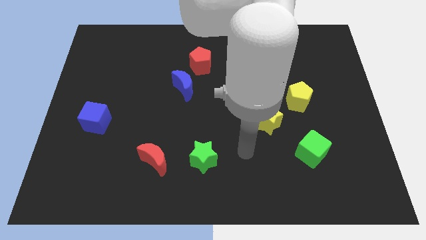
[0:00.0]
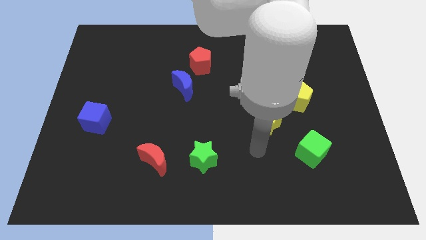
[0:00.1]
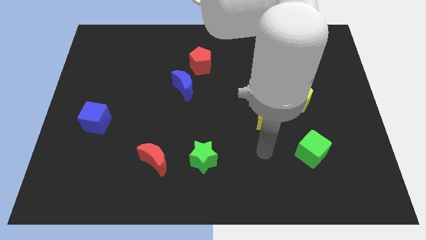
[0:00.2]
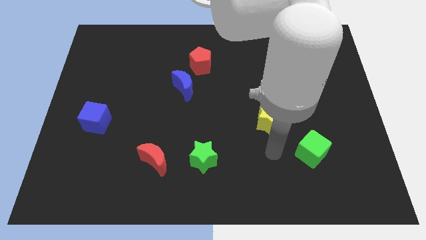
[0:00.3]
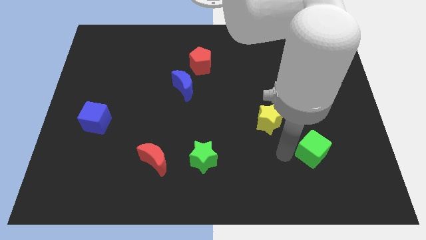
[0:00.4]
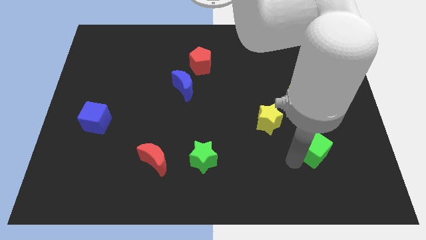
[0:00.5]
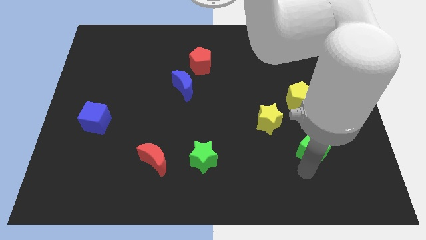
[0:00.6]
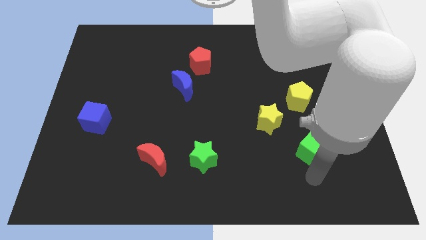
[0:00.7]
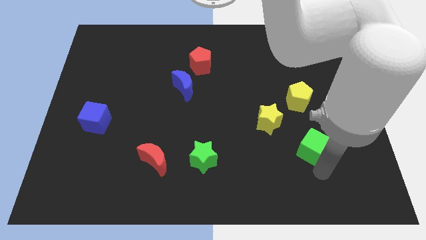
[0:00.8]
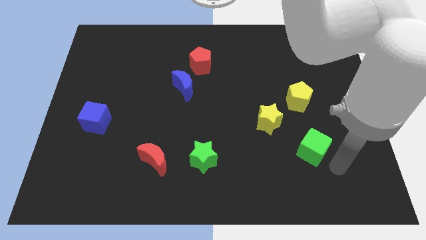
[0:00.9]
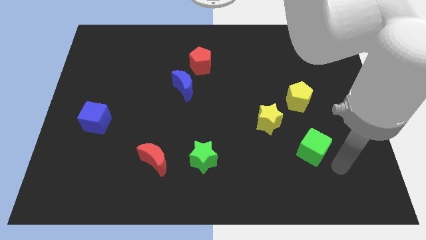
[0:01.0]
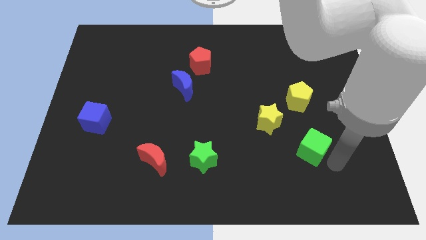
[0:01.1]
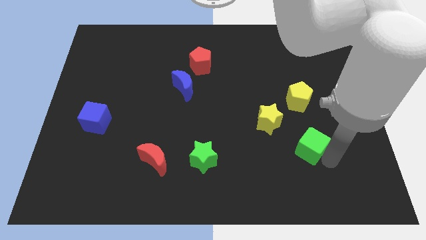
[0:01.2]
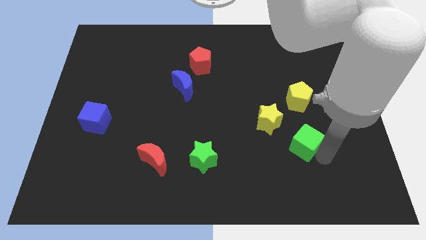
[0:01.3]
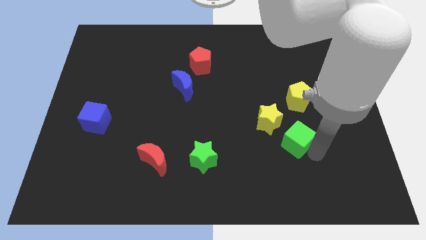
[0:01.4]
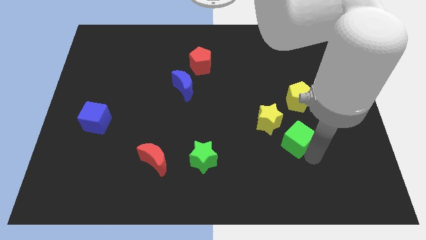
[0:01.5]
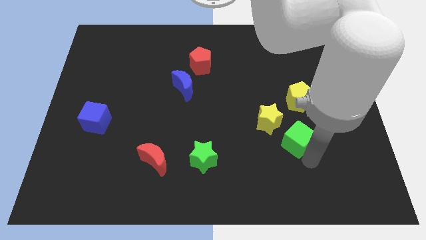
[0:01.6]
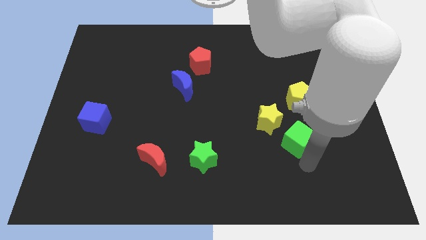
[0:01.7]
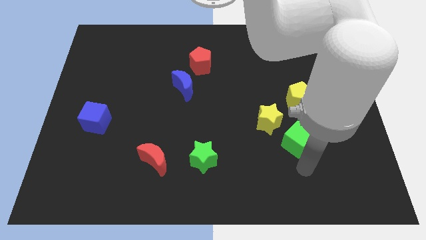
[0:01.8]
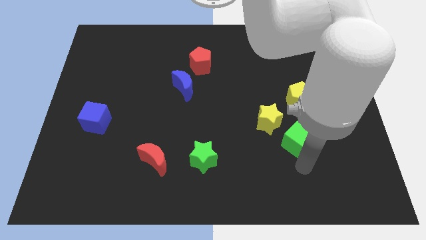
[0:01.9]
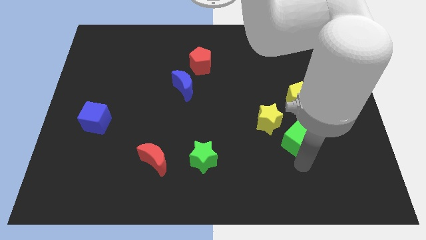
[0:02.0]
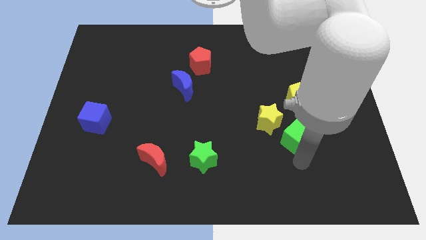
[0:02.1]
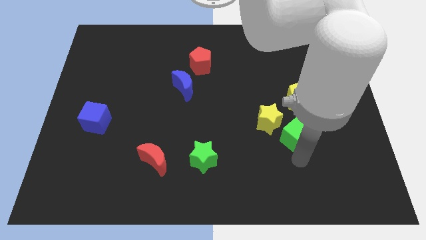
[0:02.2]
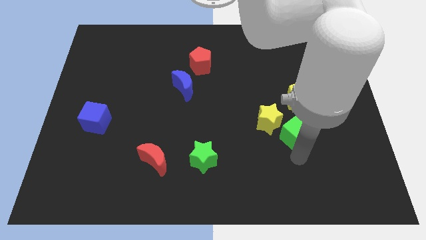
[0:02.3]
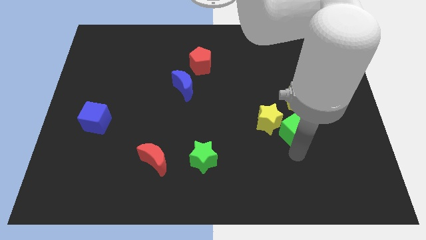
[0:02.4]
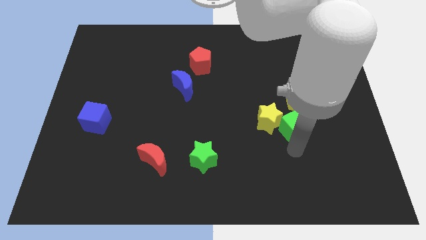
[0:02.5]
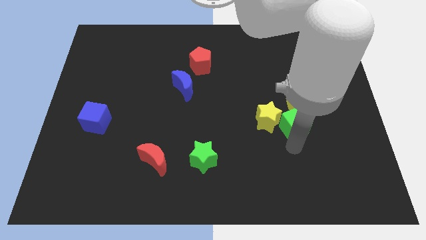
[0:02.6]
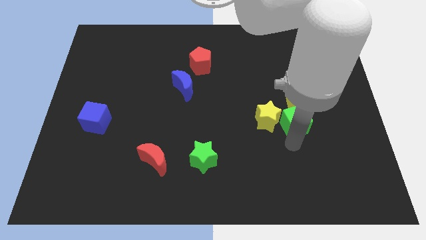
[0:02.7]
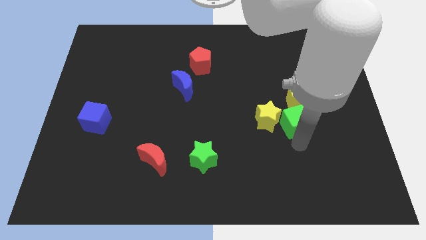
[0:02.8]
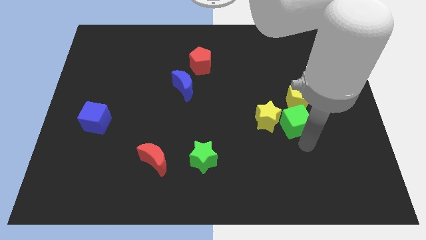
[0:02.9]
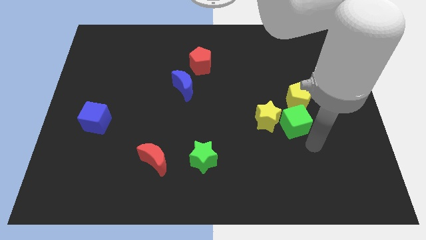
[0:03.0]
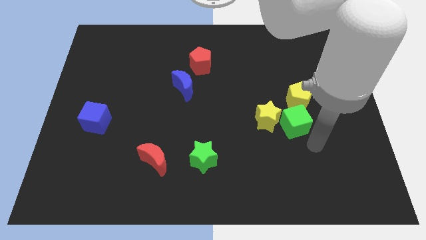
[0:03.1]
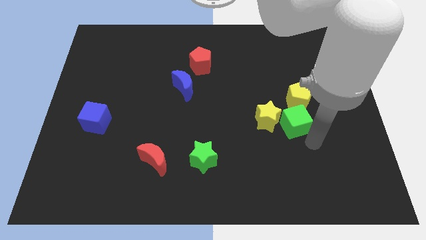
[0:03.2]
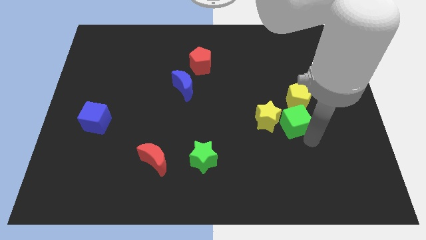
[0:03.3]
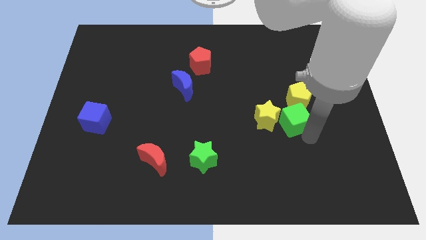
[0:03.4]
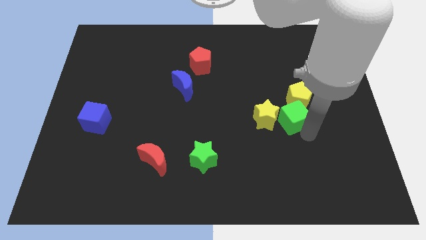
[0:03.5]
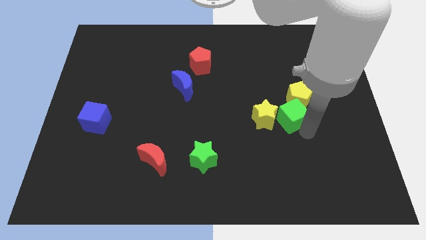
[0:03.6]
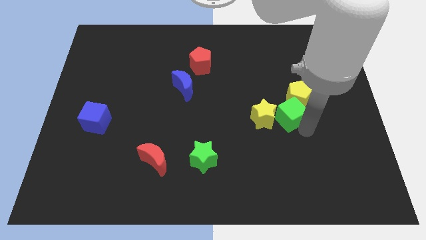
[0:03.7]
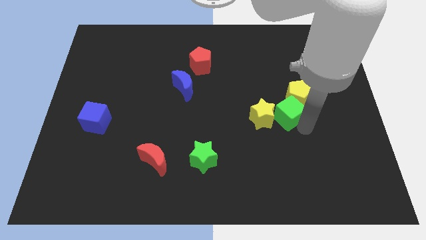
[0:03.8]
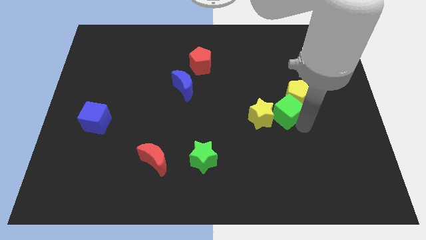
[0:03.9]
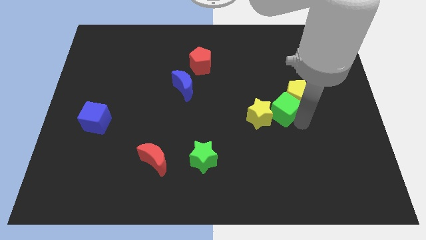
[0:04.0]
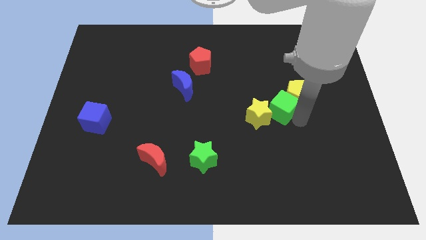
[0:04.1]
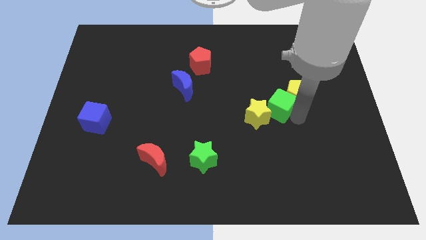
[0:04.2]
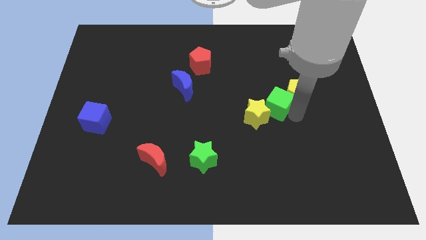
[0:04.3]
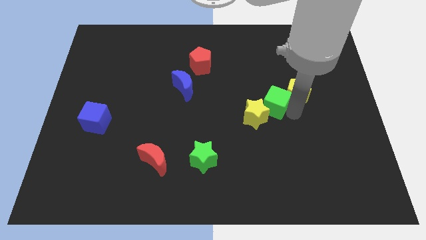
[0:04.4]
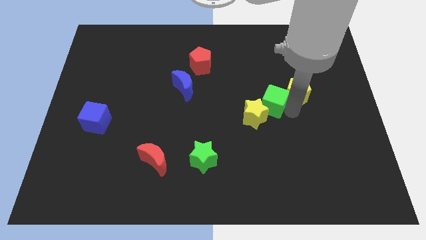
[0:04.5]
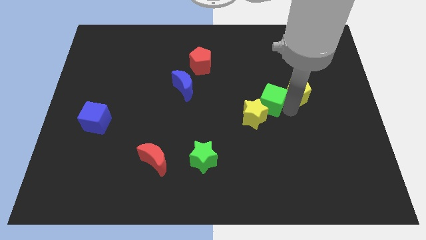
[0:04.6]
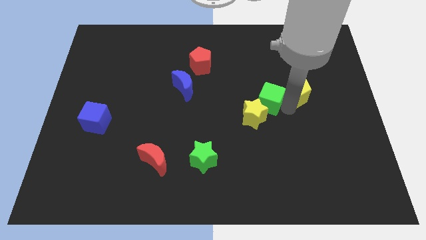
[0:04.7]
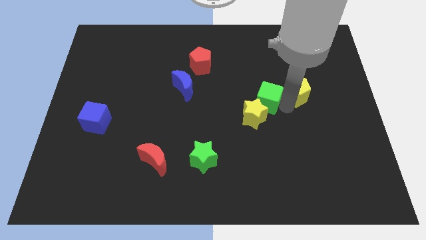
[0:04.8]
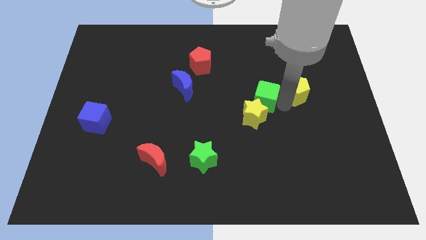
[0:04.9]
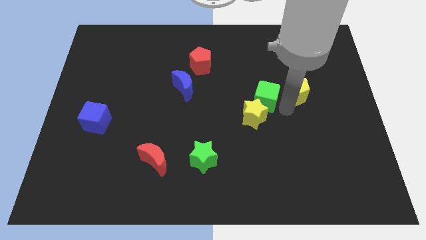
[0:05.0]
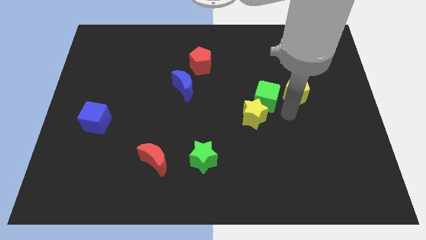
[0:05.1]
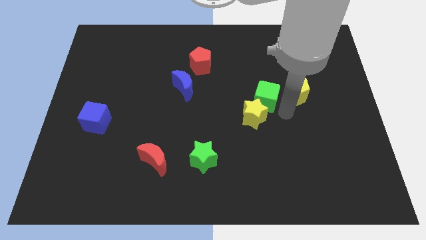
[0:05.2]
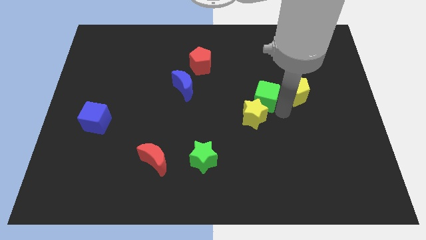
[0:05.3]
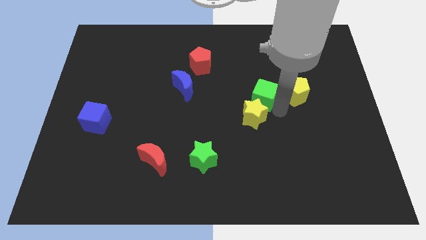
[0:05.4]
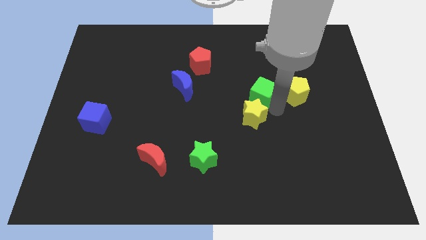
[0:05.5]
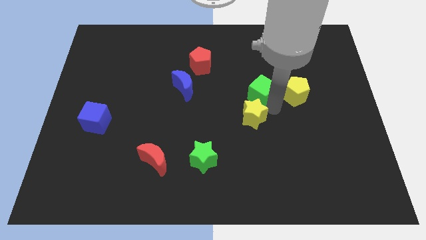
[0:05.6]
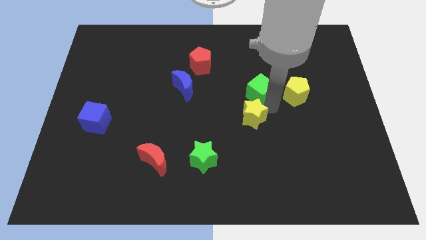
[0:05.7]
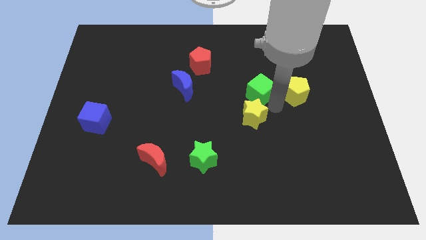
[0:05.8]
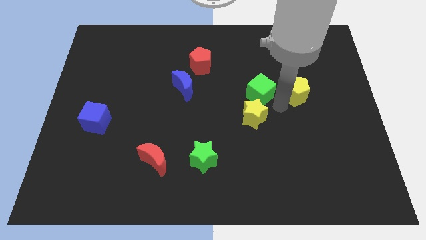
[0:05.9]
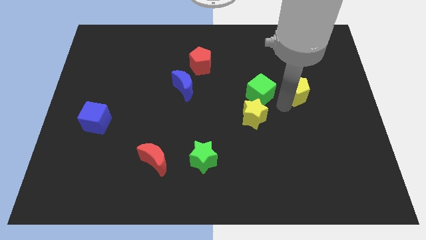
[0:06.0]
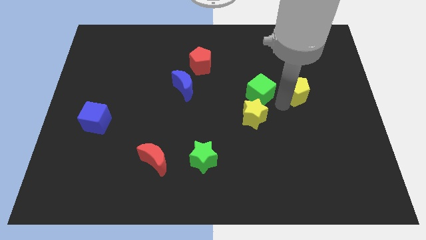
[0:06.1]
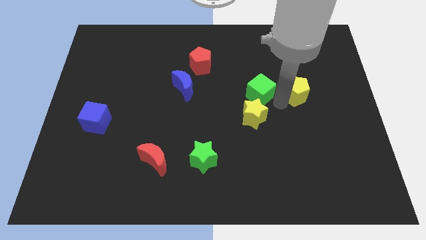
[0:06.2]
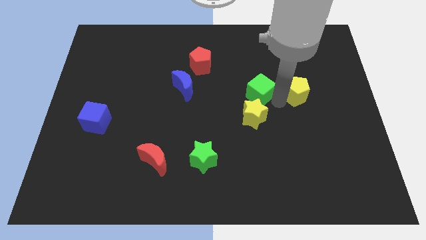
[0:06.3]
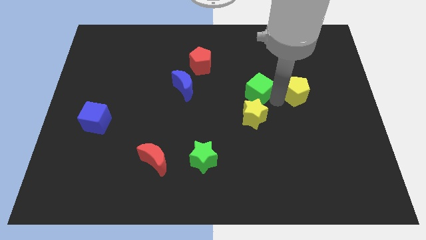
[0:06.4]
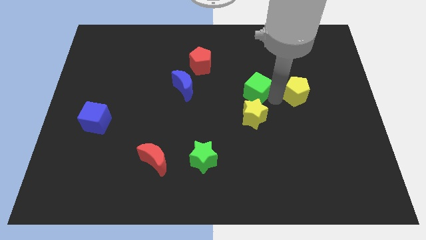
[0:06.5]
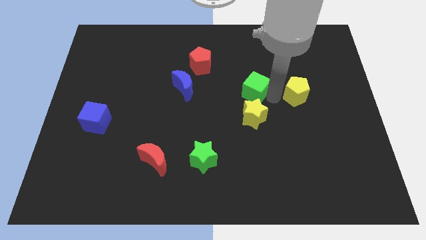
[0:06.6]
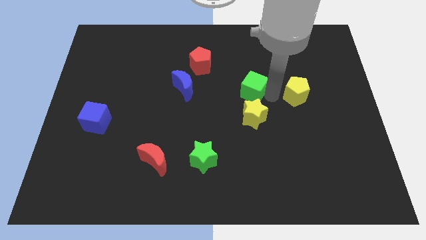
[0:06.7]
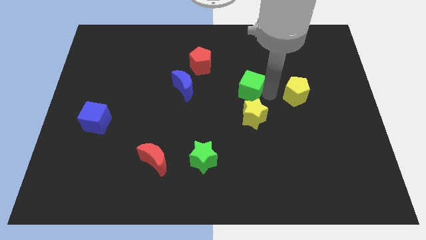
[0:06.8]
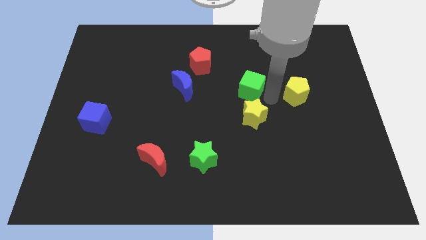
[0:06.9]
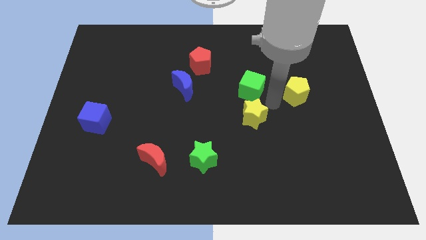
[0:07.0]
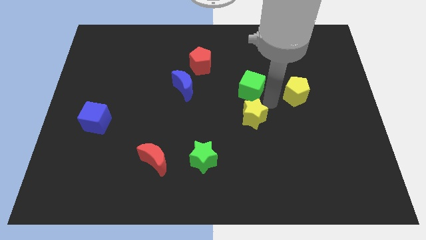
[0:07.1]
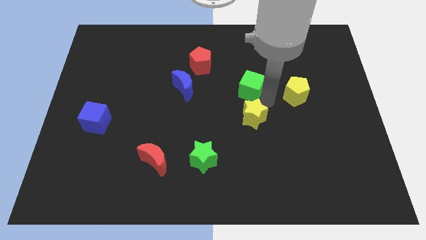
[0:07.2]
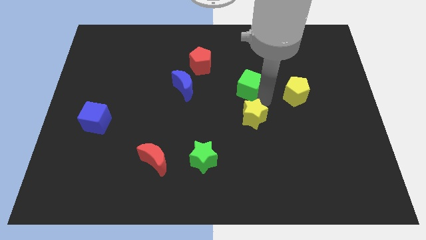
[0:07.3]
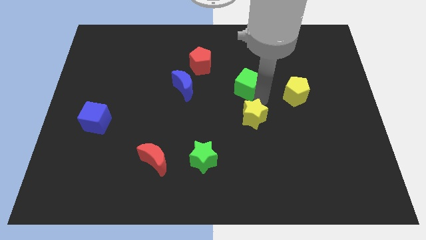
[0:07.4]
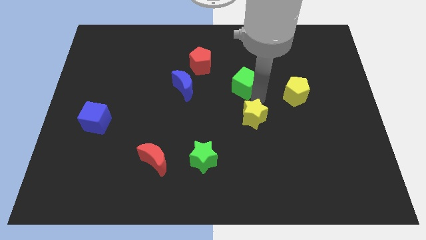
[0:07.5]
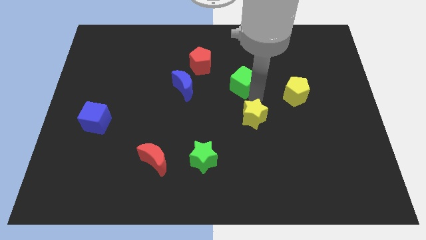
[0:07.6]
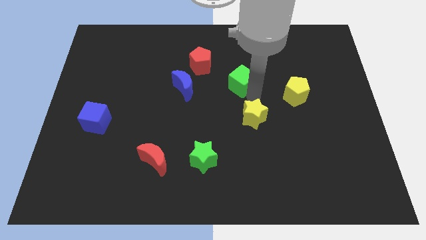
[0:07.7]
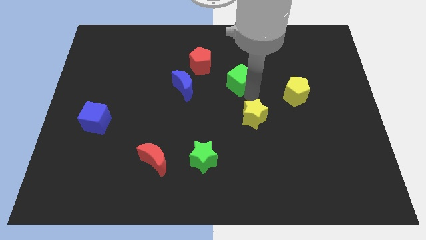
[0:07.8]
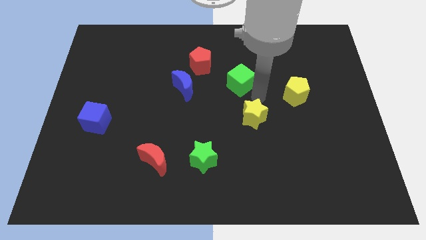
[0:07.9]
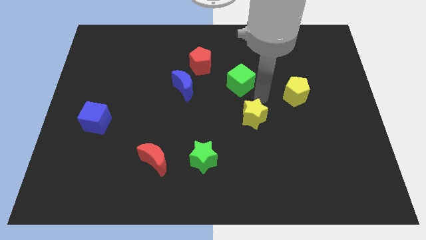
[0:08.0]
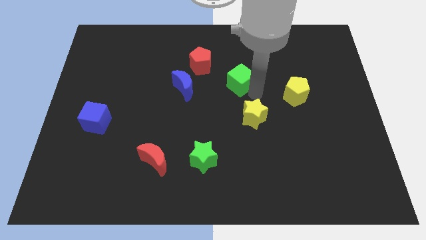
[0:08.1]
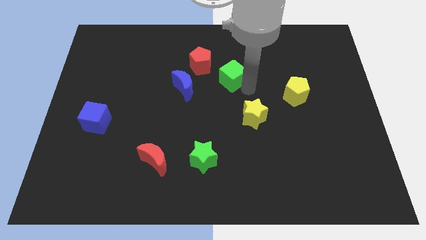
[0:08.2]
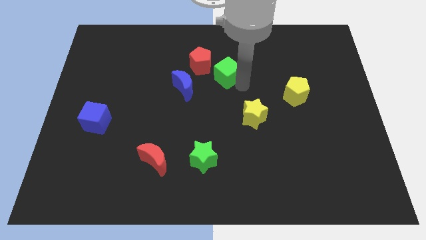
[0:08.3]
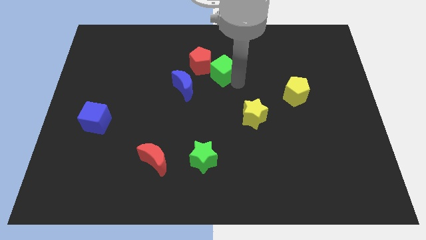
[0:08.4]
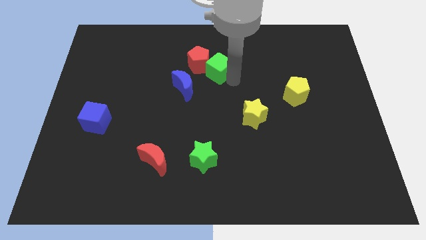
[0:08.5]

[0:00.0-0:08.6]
put the green cube to the red pentagon
